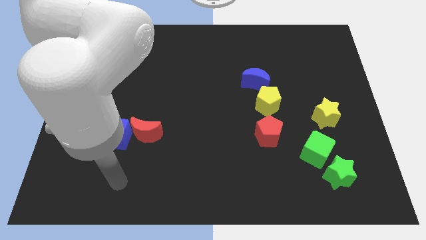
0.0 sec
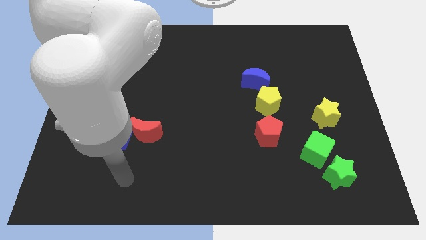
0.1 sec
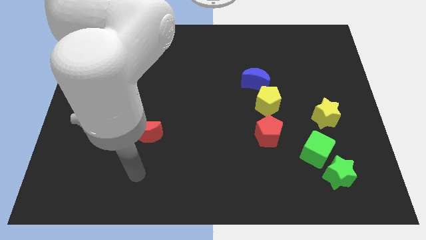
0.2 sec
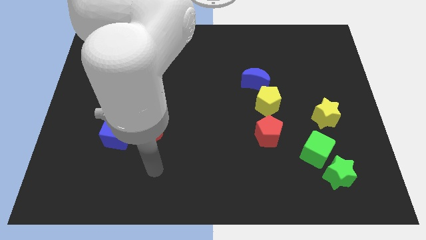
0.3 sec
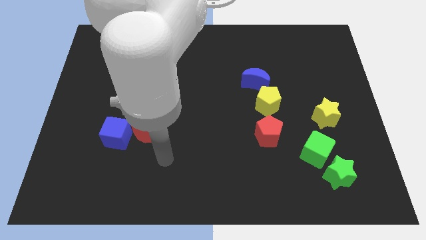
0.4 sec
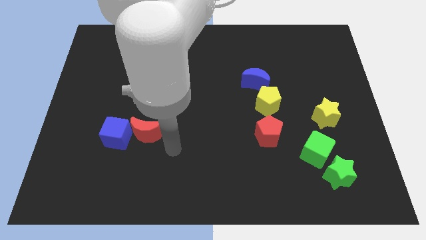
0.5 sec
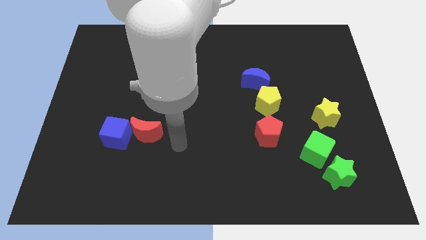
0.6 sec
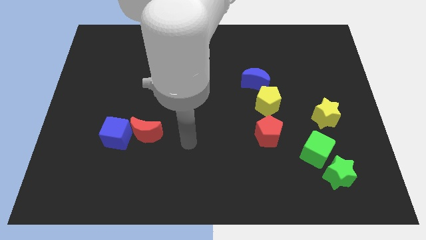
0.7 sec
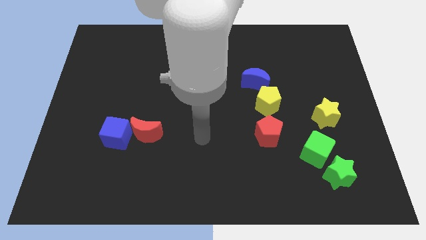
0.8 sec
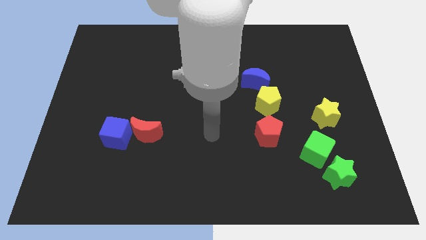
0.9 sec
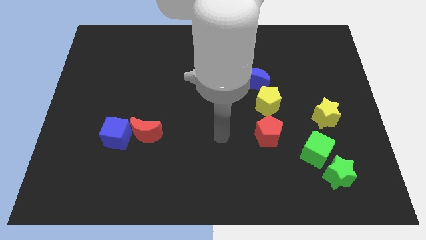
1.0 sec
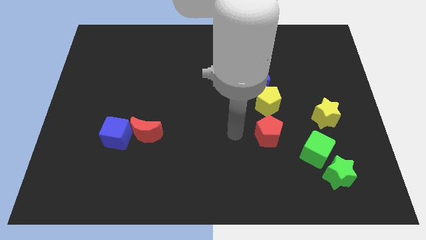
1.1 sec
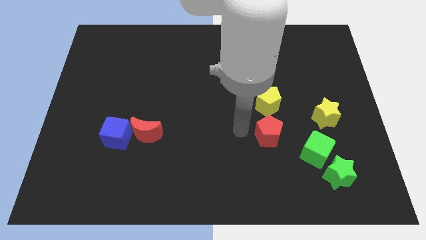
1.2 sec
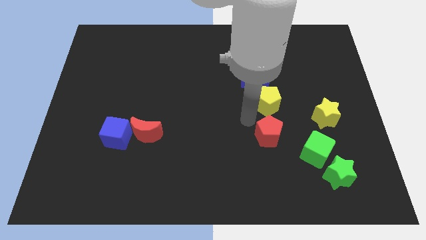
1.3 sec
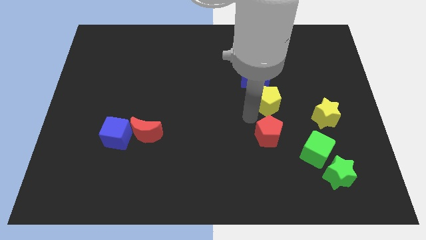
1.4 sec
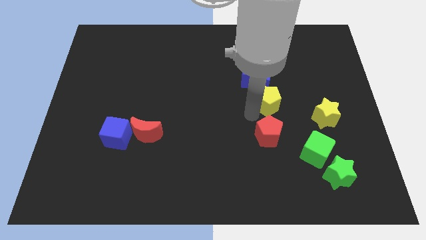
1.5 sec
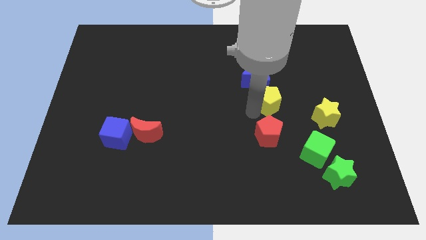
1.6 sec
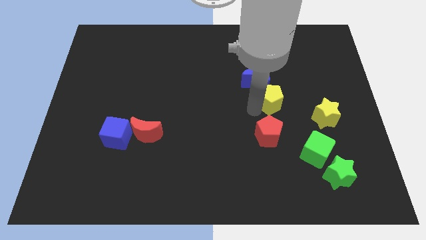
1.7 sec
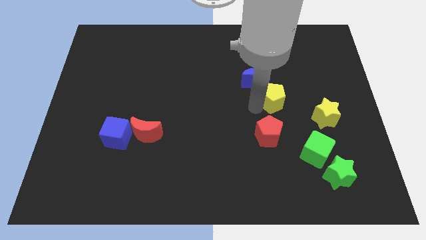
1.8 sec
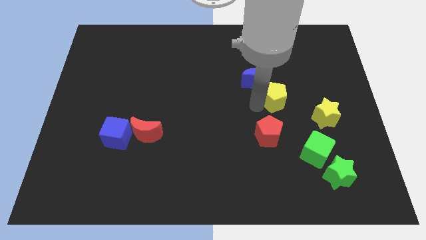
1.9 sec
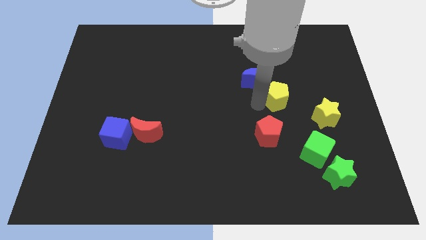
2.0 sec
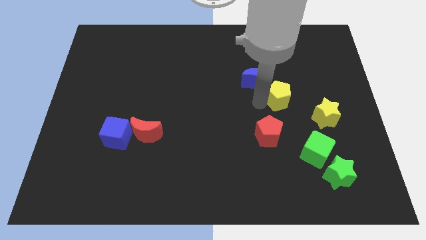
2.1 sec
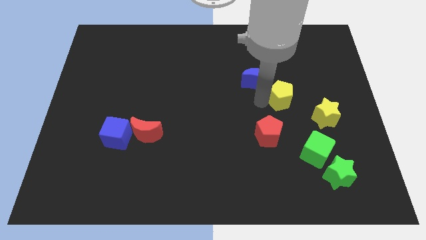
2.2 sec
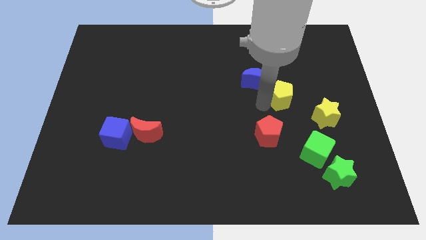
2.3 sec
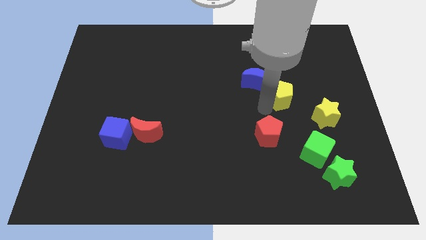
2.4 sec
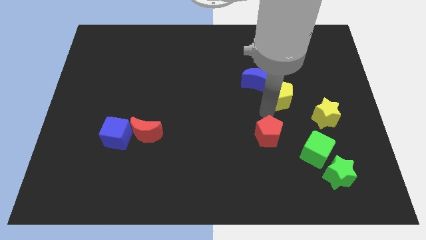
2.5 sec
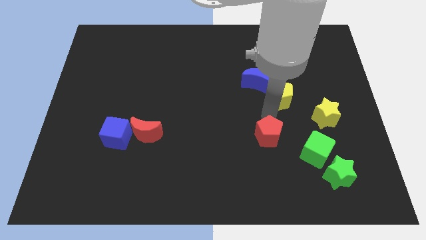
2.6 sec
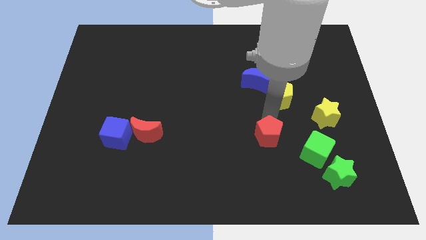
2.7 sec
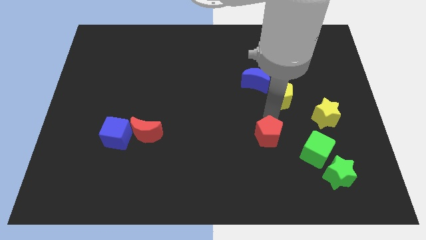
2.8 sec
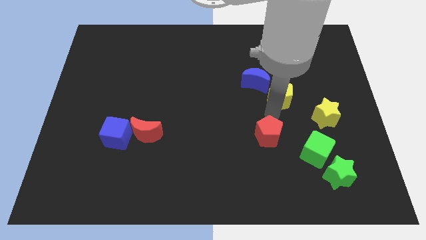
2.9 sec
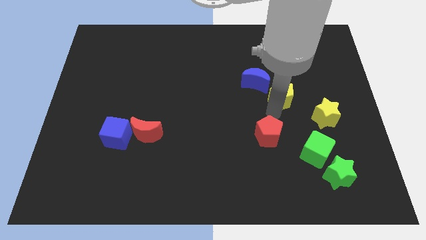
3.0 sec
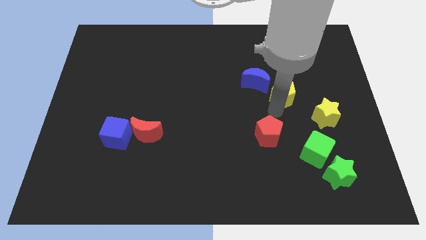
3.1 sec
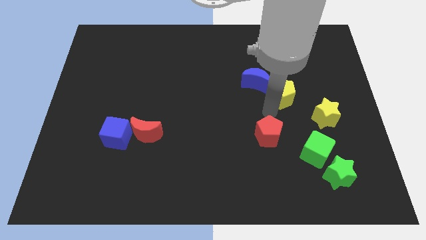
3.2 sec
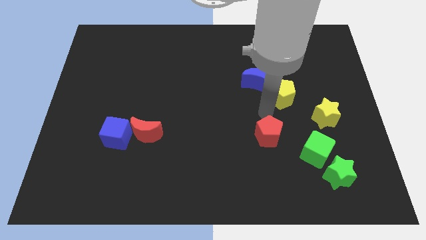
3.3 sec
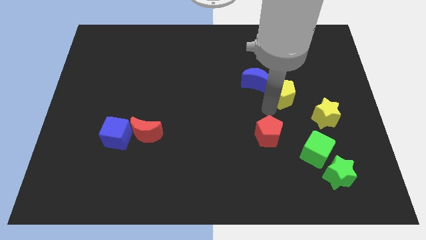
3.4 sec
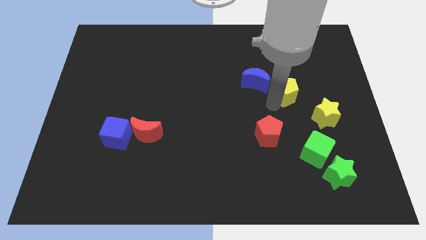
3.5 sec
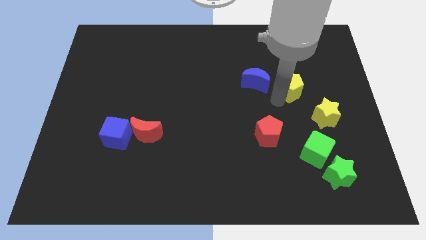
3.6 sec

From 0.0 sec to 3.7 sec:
push the yellow pentagon up and then right slightly

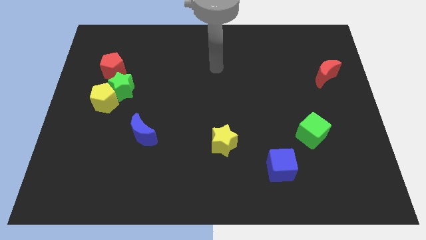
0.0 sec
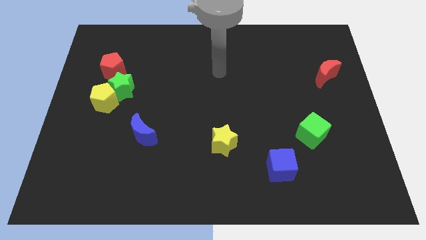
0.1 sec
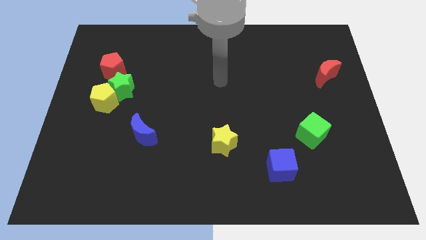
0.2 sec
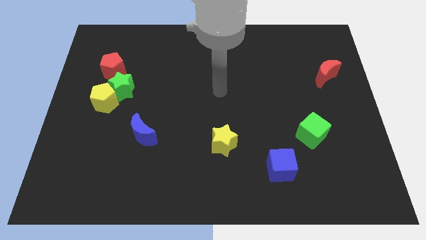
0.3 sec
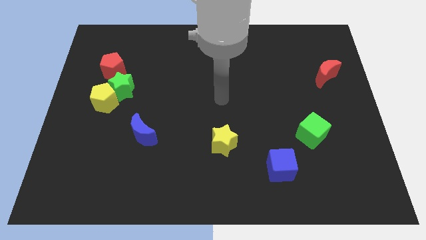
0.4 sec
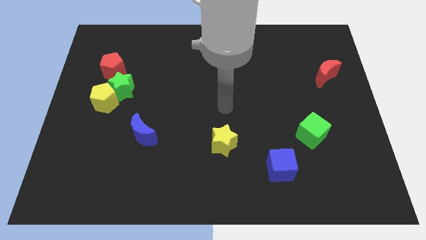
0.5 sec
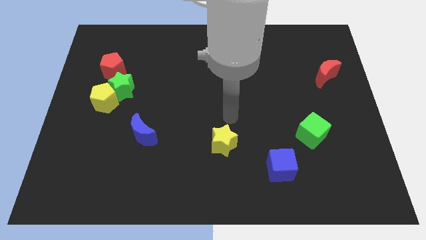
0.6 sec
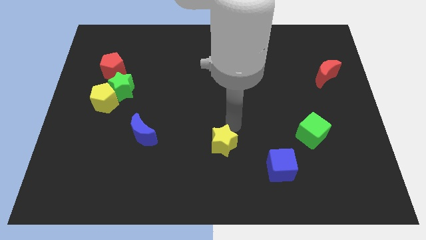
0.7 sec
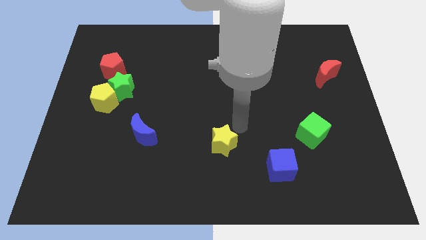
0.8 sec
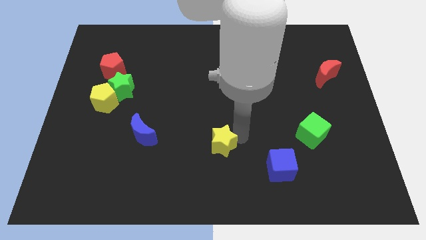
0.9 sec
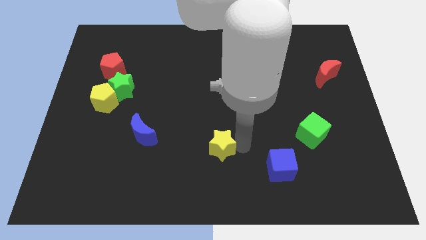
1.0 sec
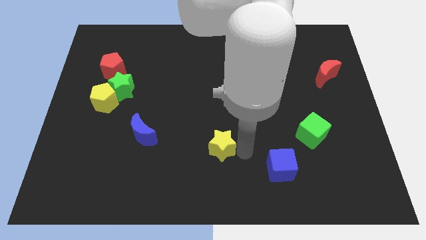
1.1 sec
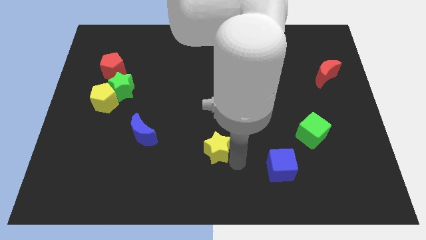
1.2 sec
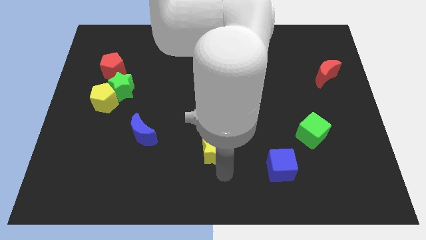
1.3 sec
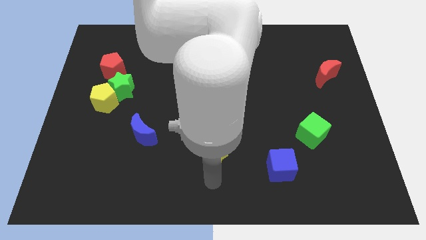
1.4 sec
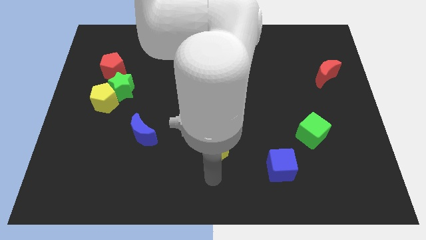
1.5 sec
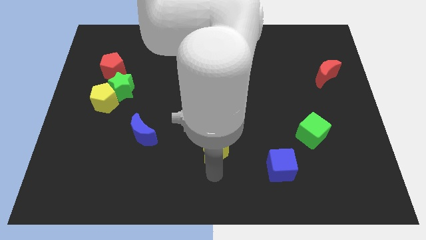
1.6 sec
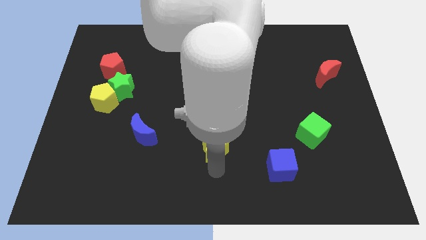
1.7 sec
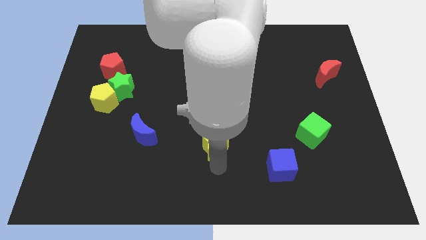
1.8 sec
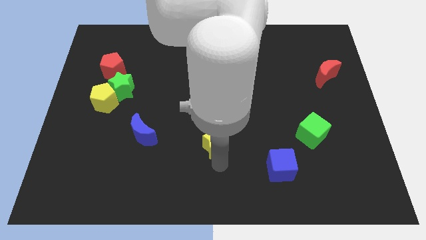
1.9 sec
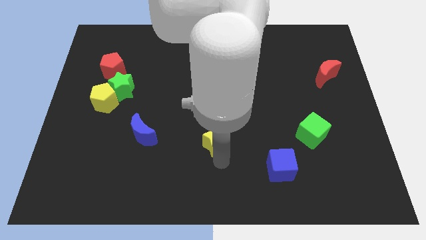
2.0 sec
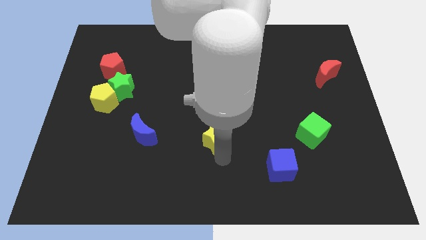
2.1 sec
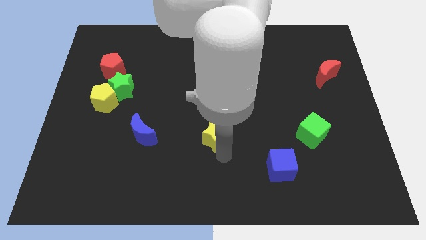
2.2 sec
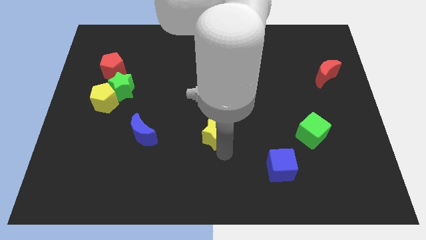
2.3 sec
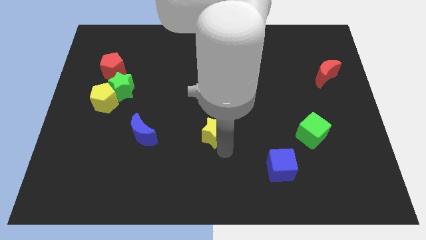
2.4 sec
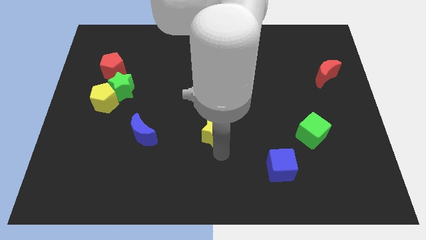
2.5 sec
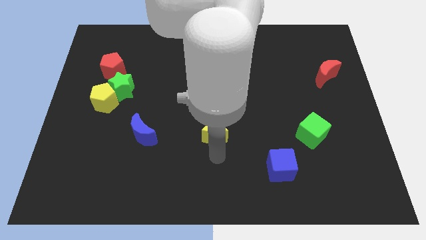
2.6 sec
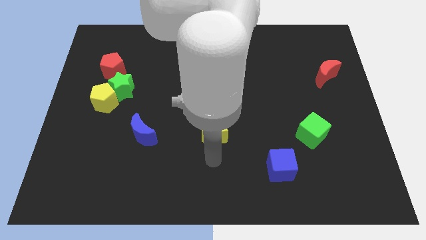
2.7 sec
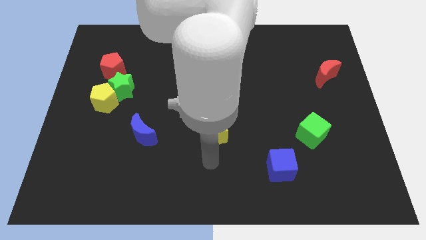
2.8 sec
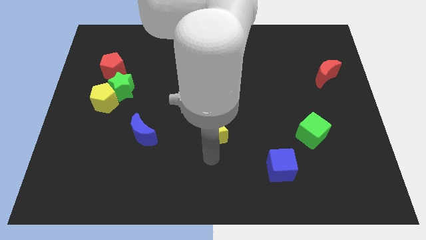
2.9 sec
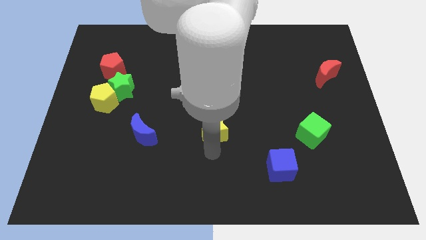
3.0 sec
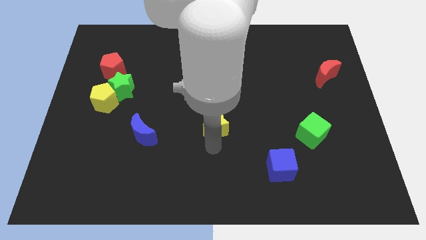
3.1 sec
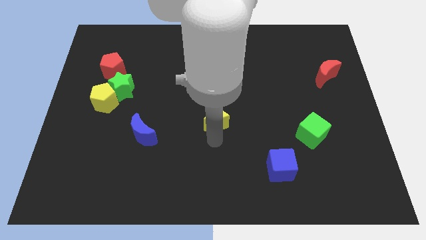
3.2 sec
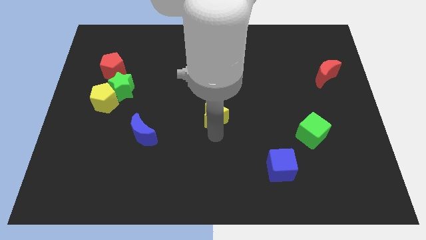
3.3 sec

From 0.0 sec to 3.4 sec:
move the yellow star upwards slightly

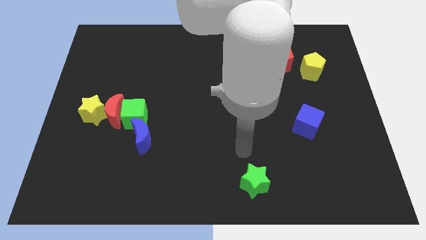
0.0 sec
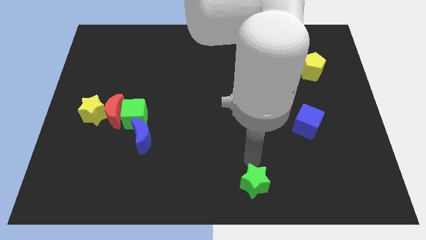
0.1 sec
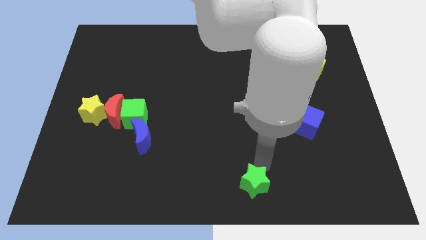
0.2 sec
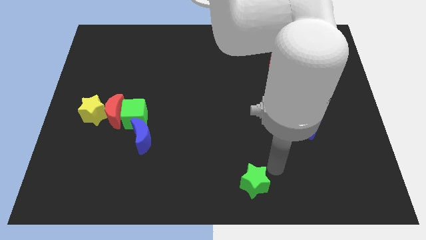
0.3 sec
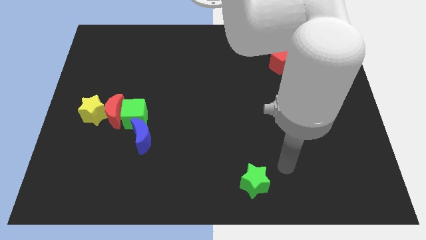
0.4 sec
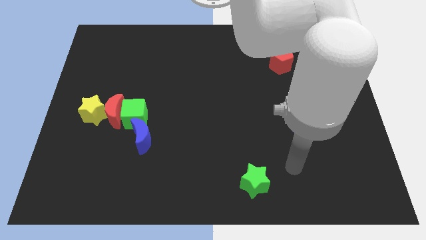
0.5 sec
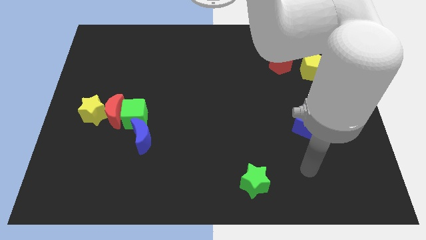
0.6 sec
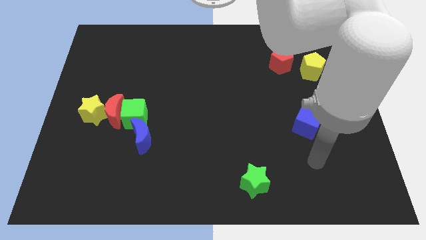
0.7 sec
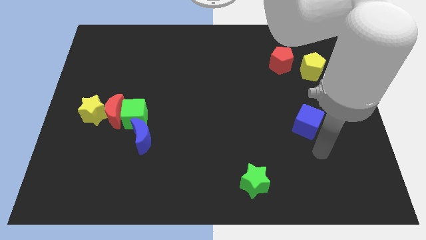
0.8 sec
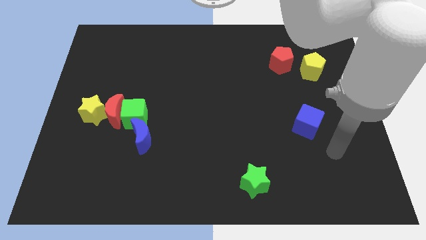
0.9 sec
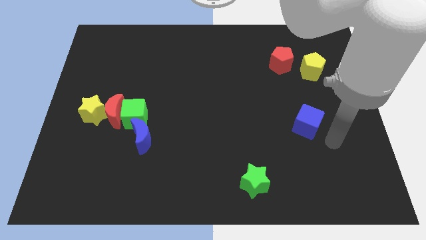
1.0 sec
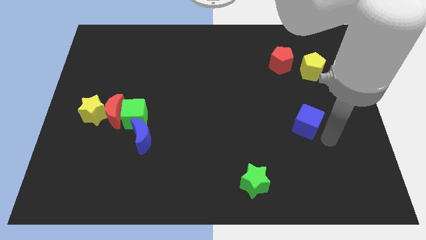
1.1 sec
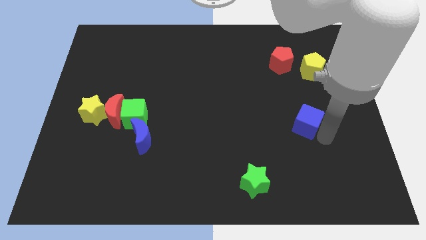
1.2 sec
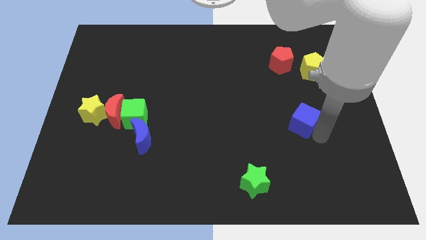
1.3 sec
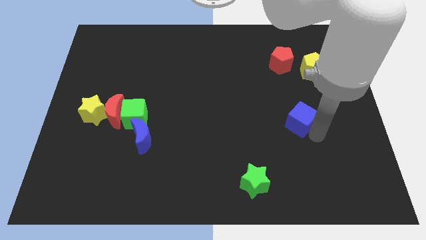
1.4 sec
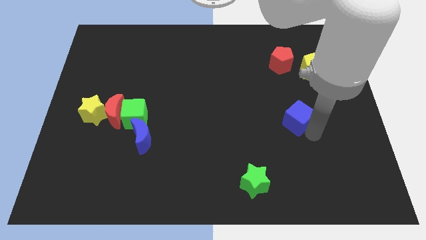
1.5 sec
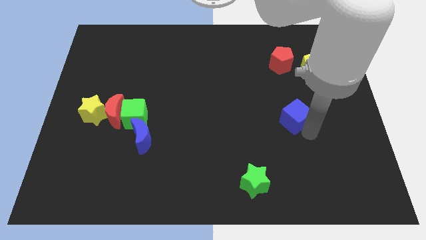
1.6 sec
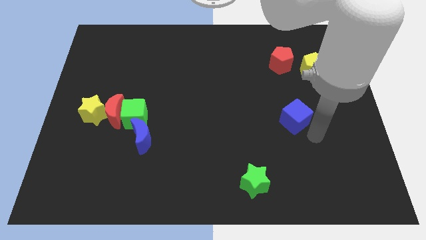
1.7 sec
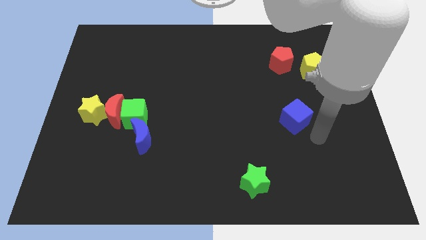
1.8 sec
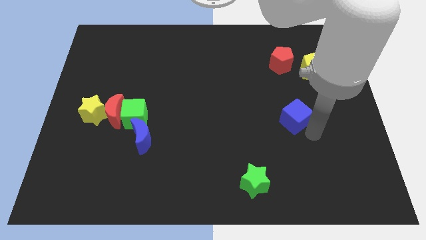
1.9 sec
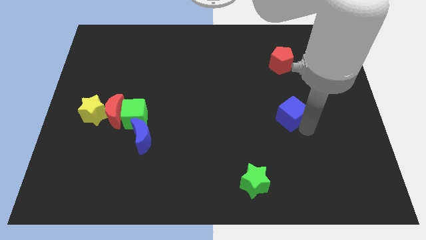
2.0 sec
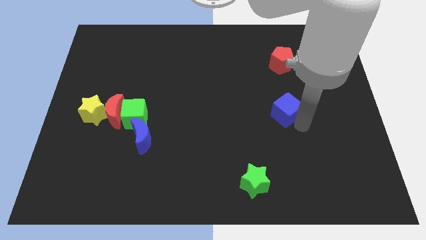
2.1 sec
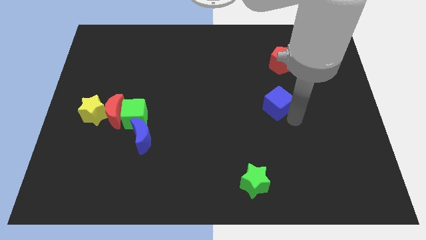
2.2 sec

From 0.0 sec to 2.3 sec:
slide the blue cube upwards and then left somewhat
